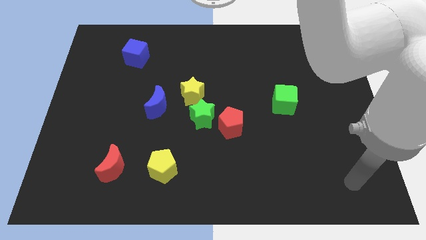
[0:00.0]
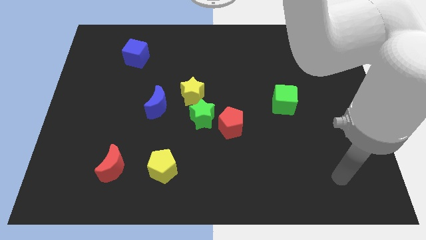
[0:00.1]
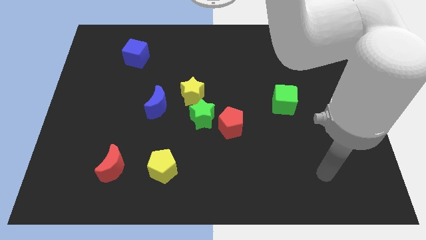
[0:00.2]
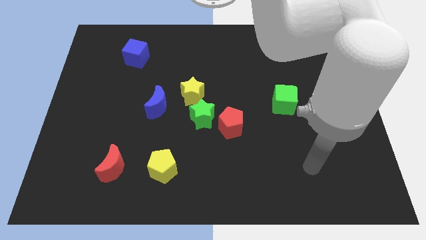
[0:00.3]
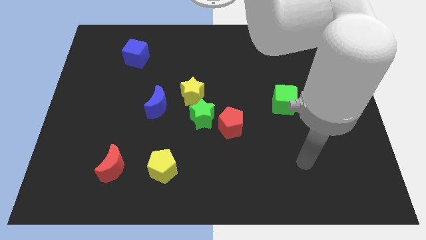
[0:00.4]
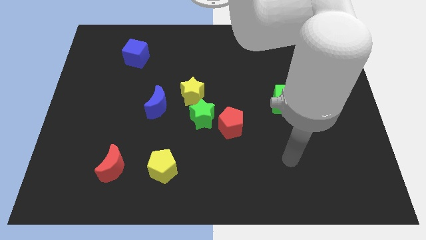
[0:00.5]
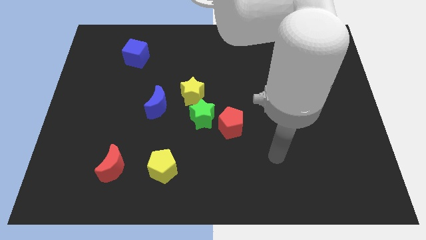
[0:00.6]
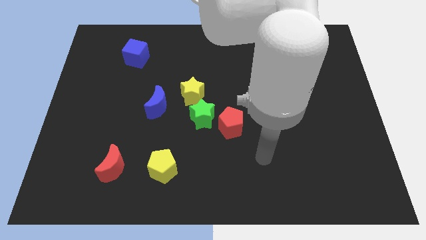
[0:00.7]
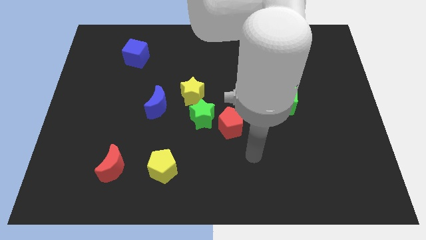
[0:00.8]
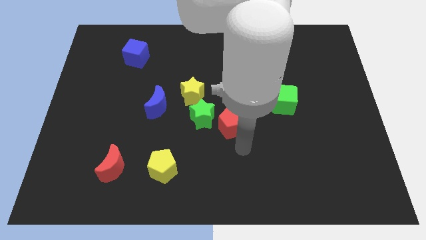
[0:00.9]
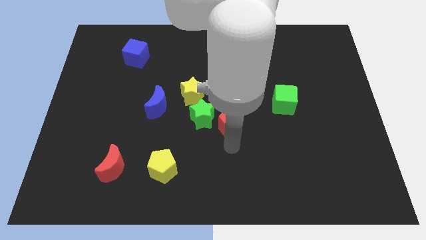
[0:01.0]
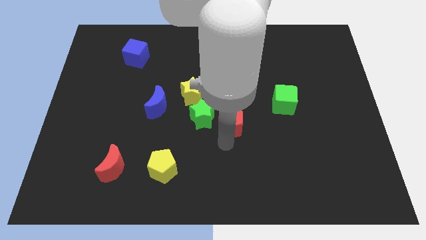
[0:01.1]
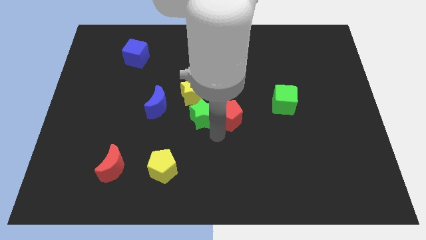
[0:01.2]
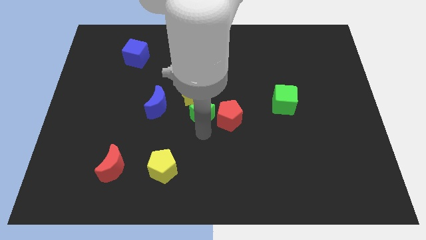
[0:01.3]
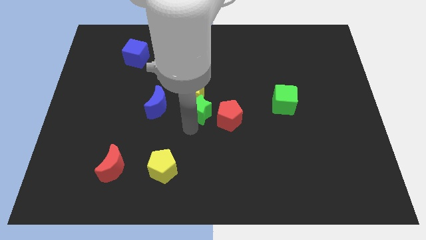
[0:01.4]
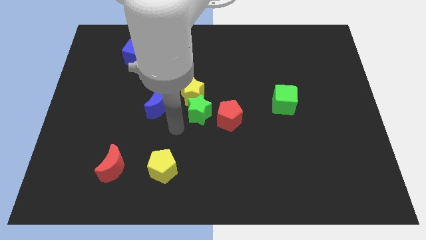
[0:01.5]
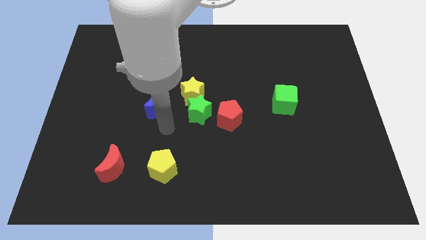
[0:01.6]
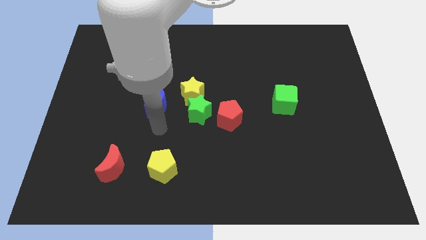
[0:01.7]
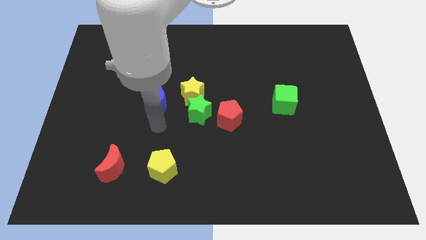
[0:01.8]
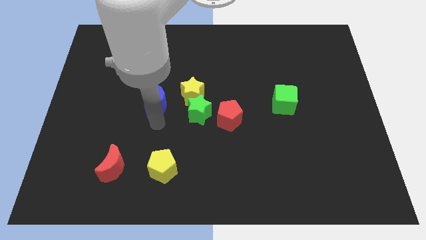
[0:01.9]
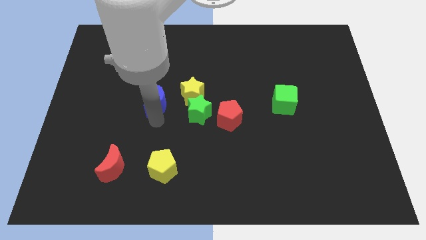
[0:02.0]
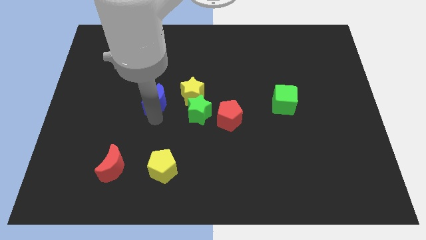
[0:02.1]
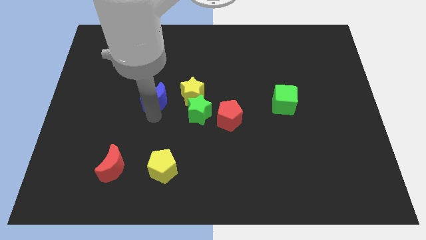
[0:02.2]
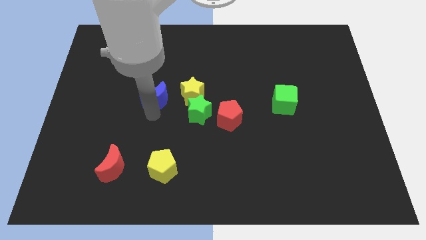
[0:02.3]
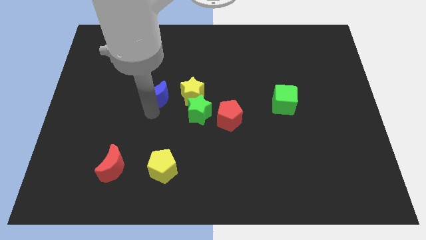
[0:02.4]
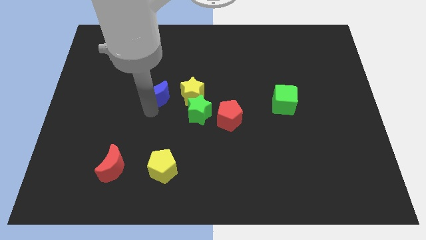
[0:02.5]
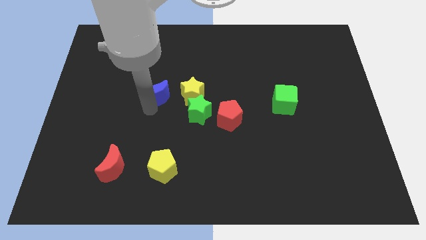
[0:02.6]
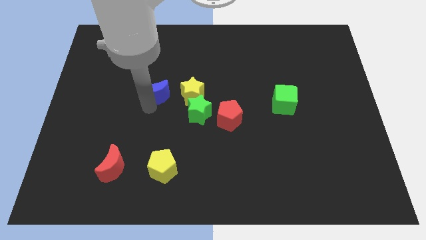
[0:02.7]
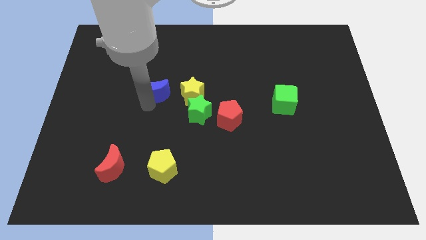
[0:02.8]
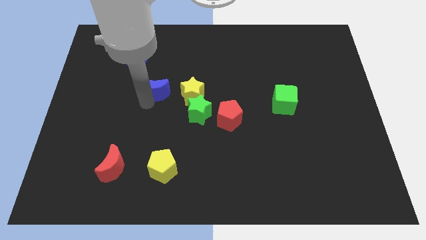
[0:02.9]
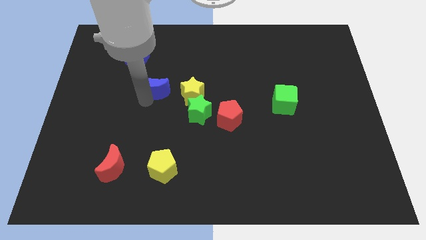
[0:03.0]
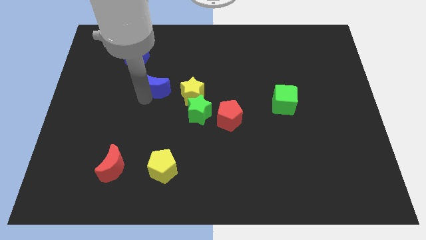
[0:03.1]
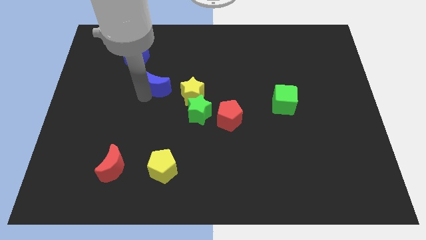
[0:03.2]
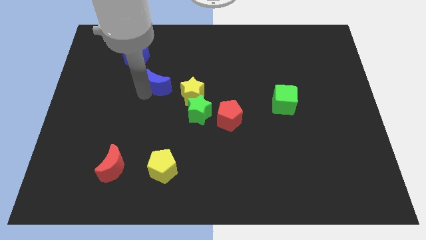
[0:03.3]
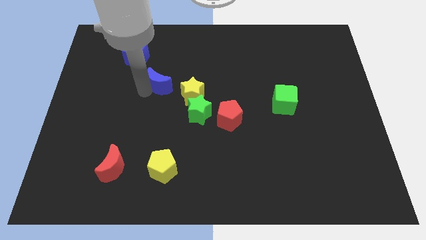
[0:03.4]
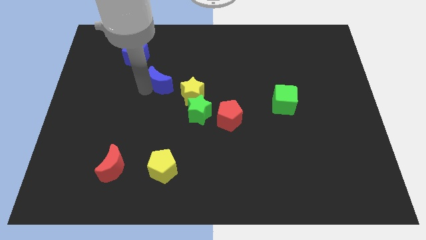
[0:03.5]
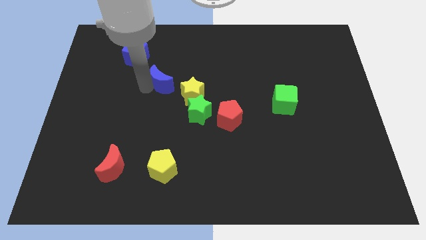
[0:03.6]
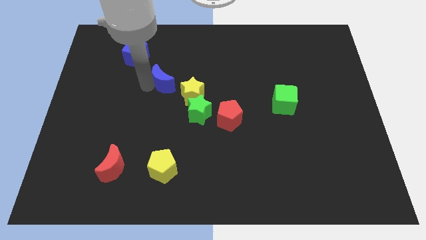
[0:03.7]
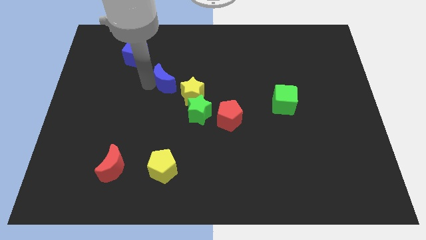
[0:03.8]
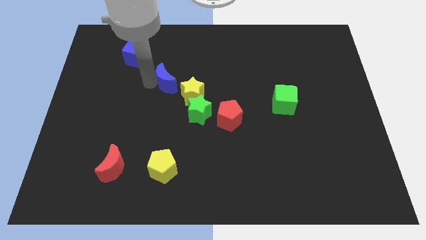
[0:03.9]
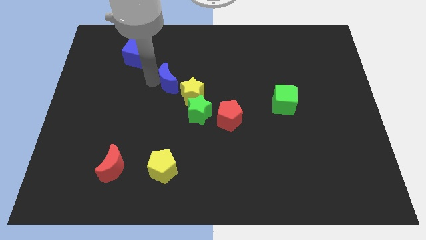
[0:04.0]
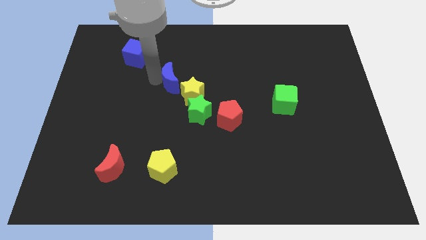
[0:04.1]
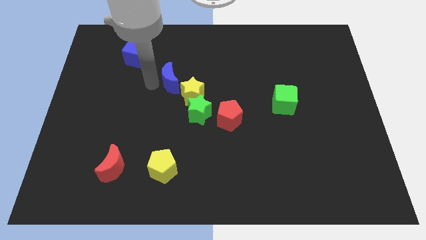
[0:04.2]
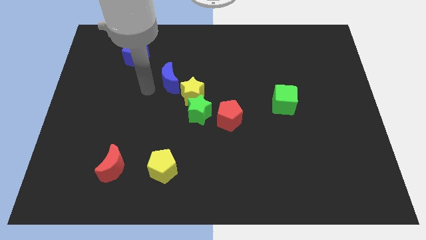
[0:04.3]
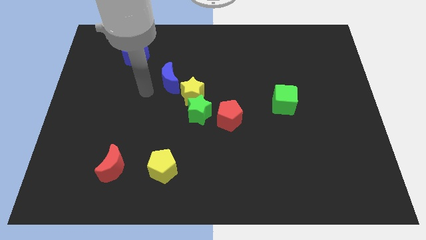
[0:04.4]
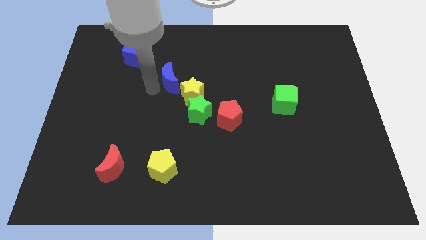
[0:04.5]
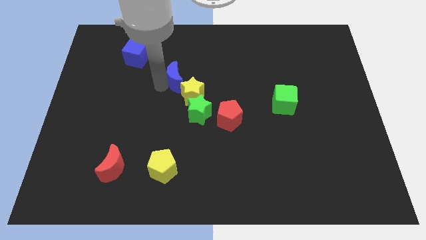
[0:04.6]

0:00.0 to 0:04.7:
slightly move the blue moon diagonally up and right

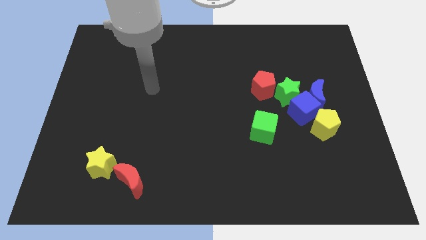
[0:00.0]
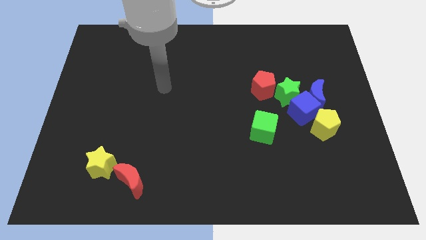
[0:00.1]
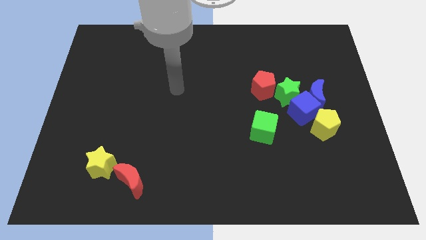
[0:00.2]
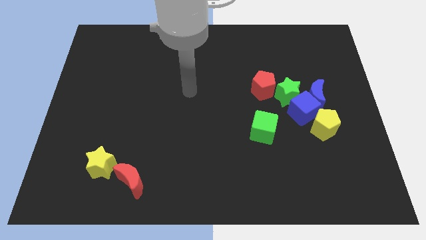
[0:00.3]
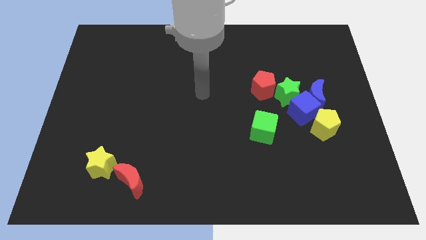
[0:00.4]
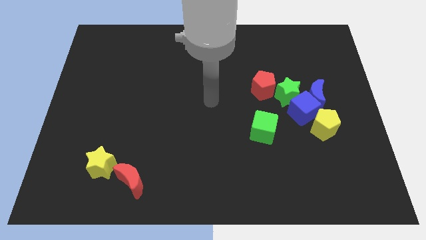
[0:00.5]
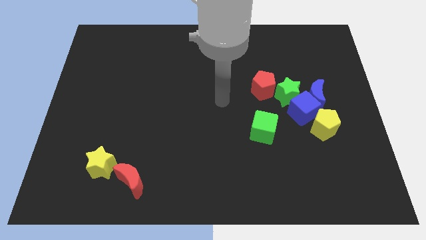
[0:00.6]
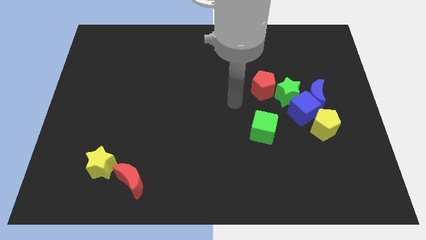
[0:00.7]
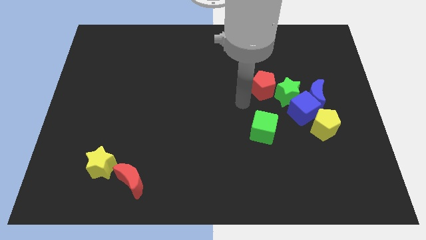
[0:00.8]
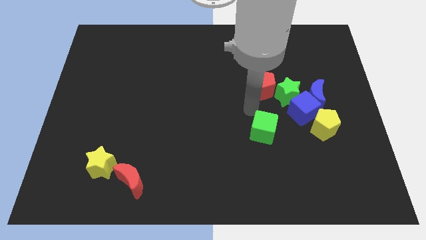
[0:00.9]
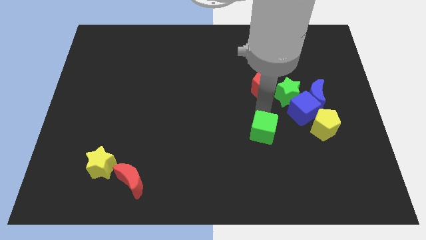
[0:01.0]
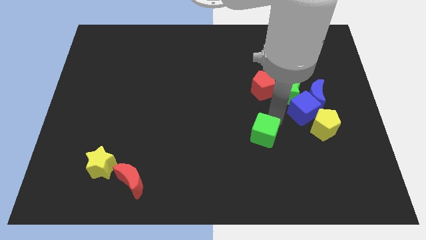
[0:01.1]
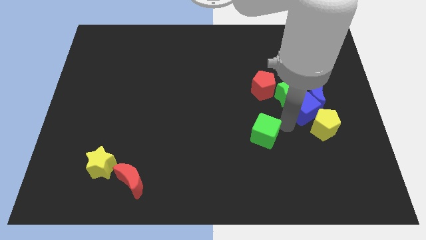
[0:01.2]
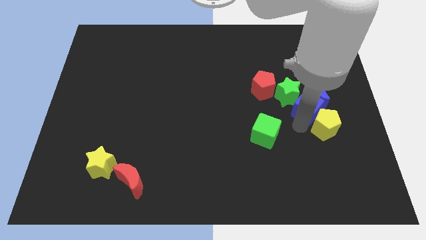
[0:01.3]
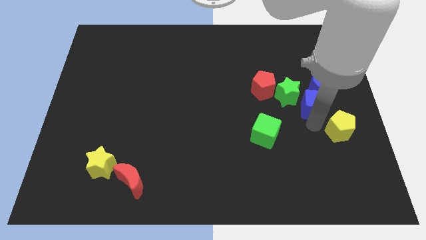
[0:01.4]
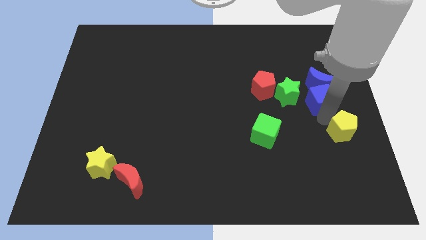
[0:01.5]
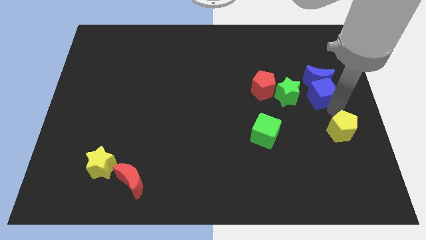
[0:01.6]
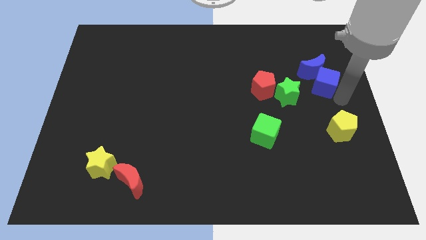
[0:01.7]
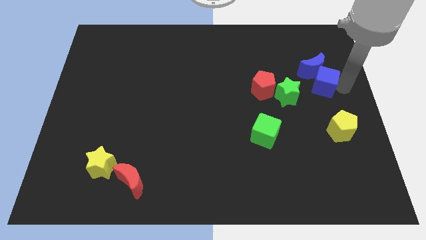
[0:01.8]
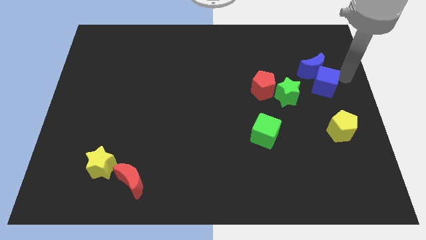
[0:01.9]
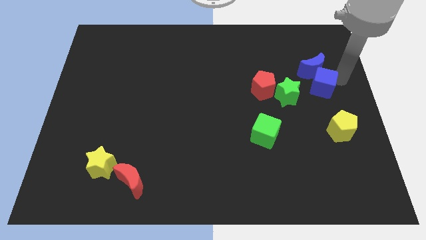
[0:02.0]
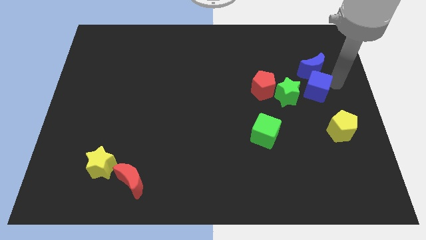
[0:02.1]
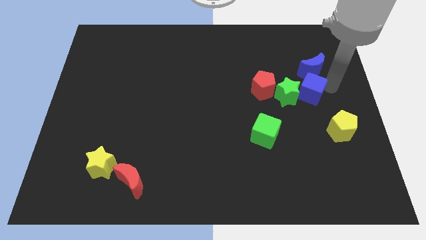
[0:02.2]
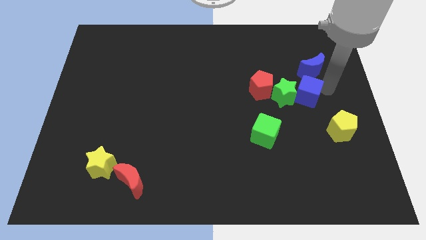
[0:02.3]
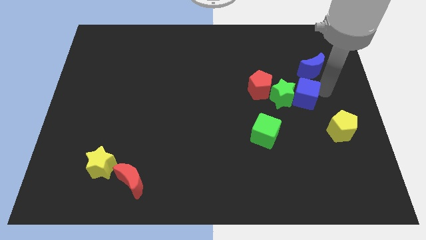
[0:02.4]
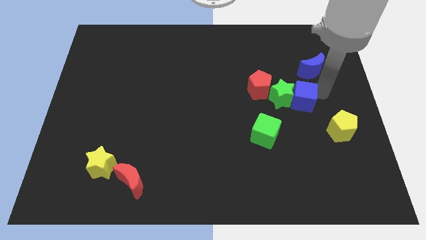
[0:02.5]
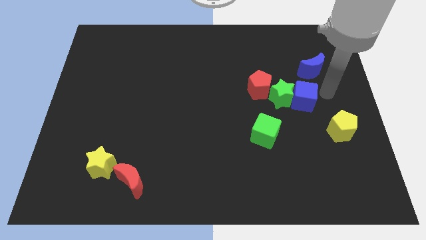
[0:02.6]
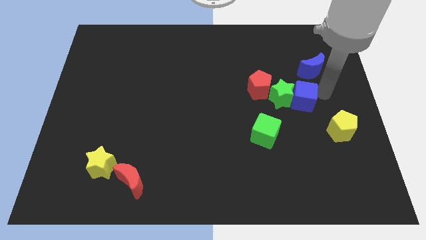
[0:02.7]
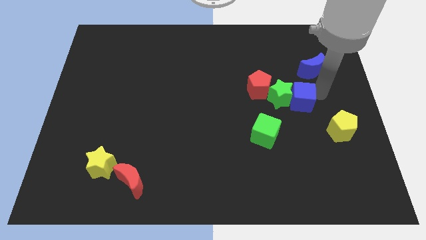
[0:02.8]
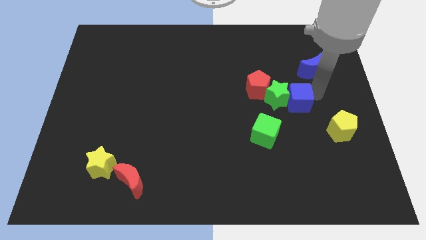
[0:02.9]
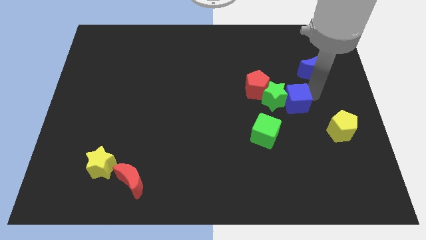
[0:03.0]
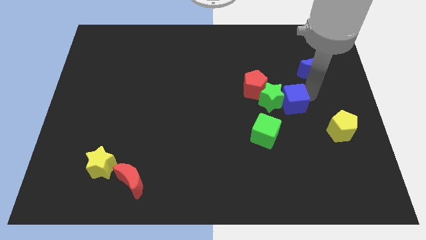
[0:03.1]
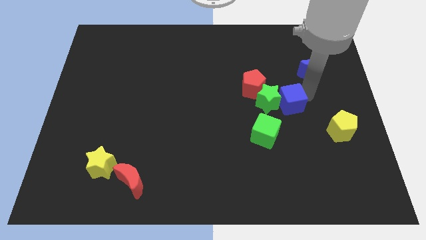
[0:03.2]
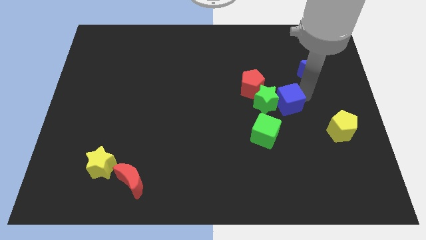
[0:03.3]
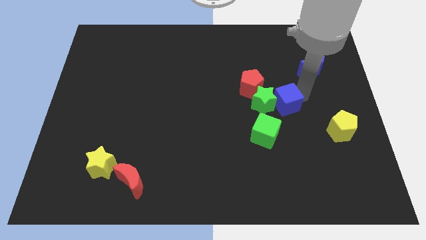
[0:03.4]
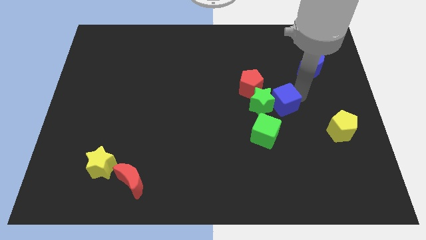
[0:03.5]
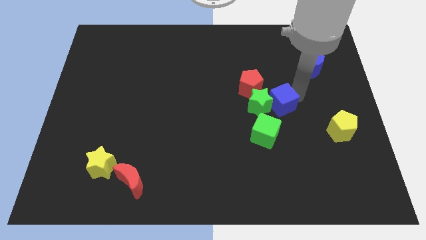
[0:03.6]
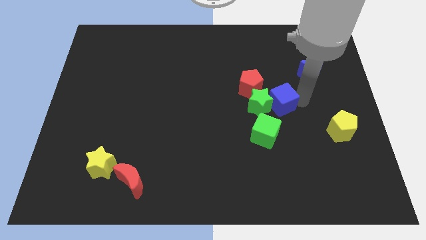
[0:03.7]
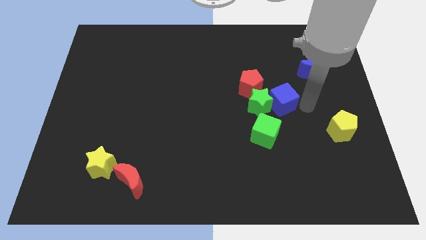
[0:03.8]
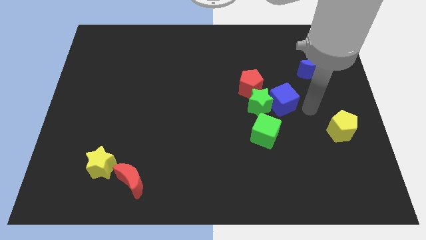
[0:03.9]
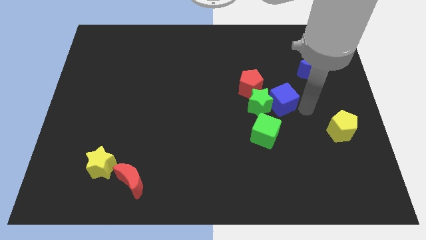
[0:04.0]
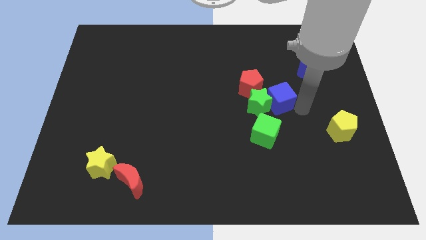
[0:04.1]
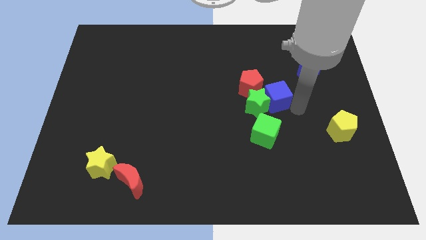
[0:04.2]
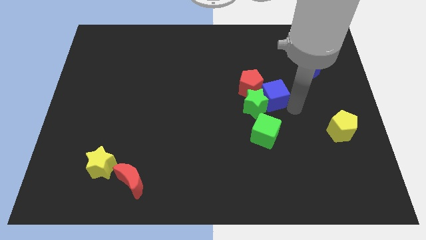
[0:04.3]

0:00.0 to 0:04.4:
slightly move the blue cube up and then left
